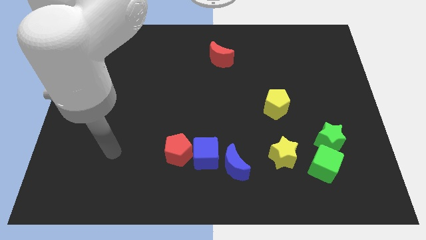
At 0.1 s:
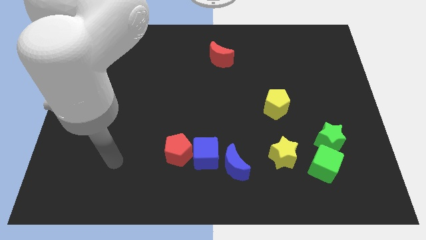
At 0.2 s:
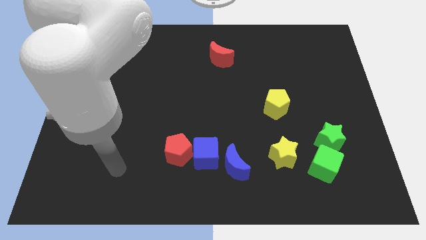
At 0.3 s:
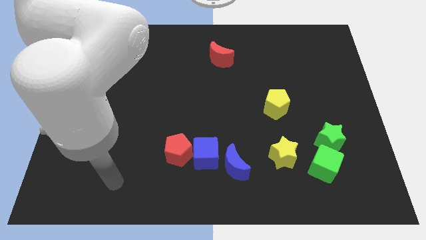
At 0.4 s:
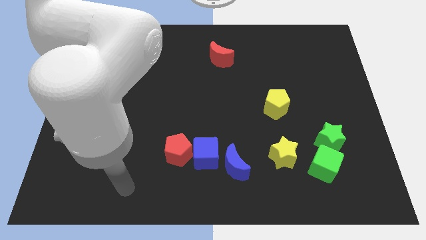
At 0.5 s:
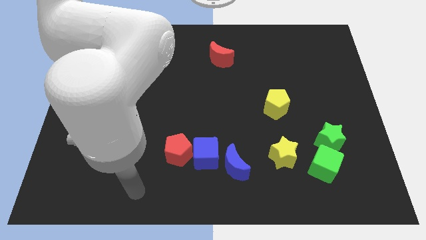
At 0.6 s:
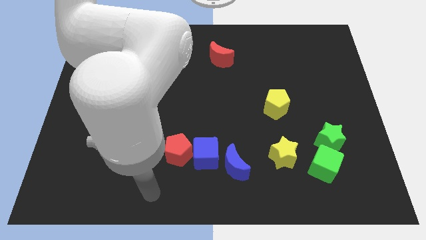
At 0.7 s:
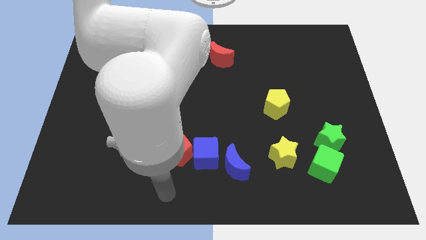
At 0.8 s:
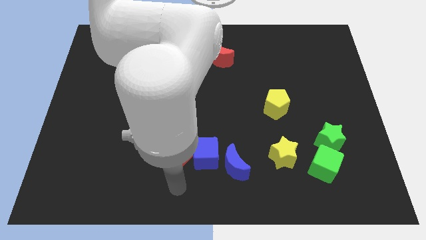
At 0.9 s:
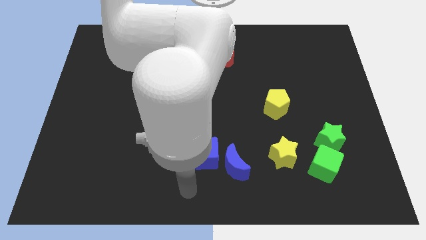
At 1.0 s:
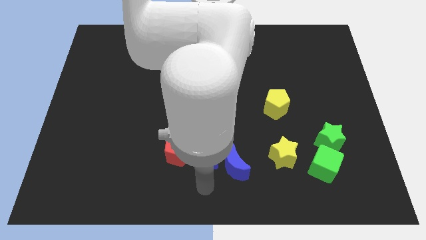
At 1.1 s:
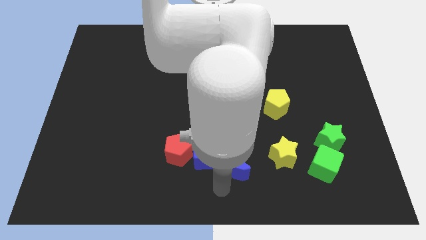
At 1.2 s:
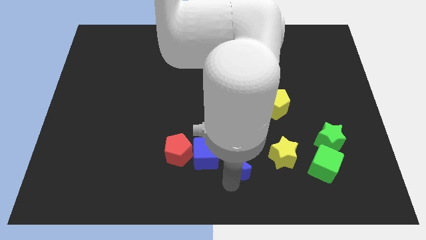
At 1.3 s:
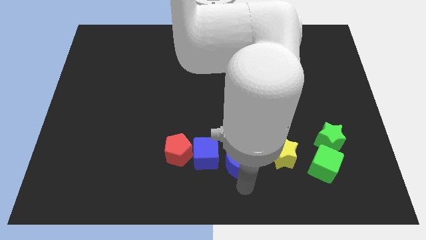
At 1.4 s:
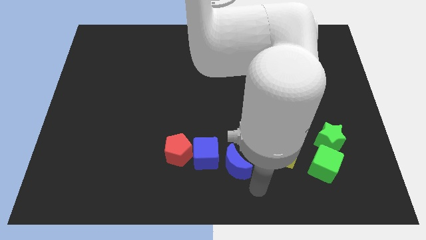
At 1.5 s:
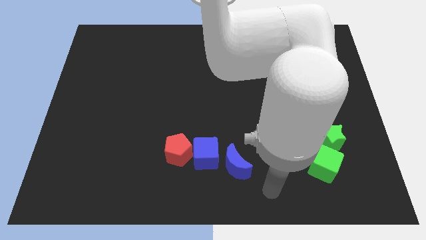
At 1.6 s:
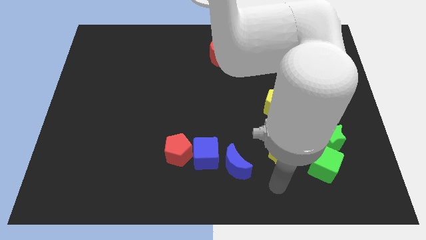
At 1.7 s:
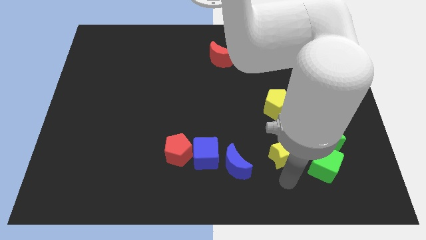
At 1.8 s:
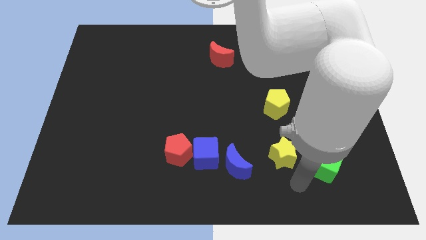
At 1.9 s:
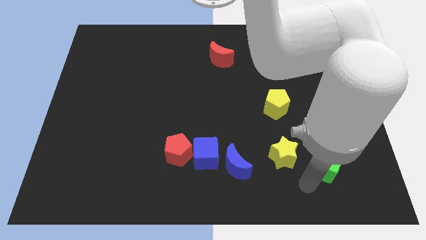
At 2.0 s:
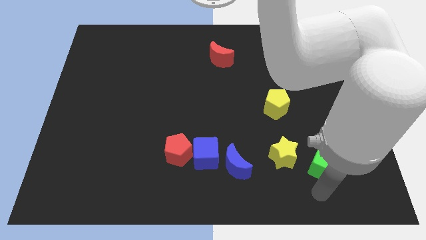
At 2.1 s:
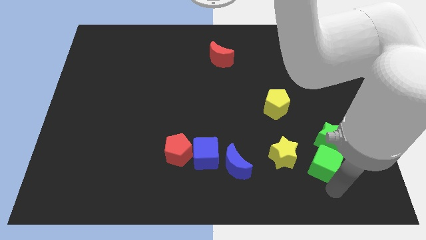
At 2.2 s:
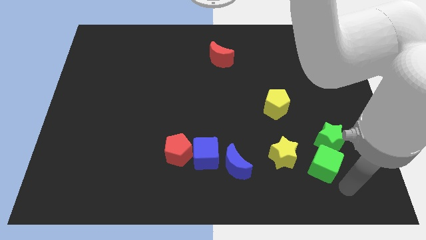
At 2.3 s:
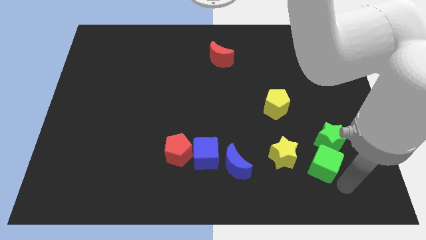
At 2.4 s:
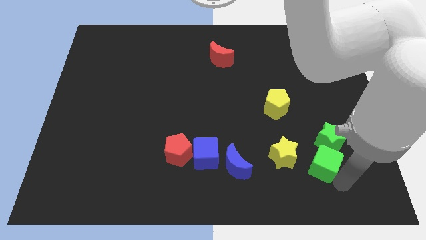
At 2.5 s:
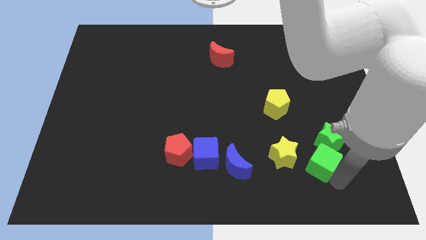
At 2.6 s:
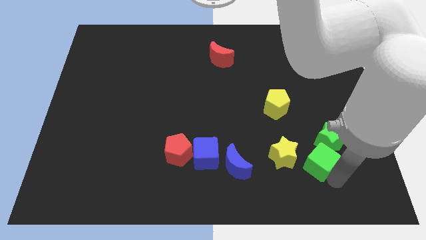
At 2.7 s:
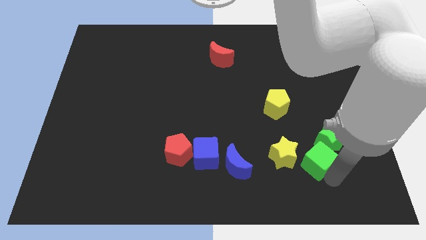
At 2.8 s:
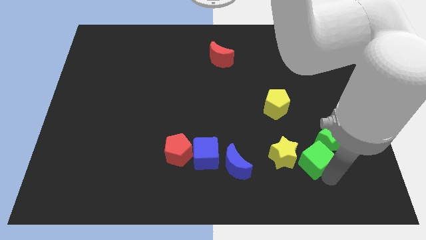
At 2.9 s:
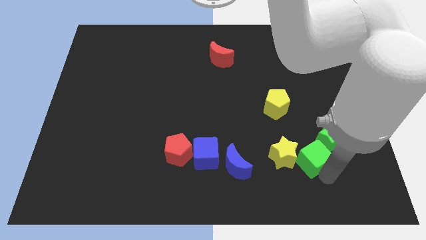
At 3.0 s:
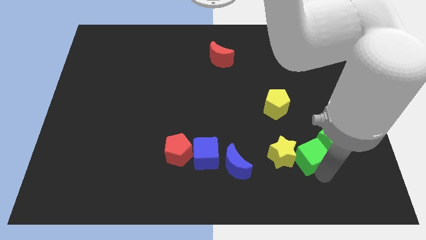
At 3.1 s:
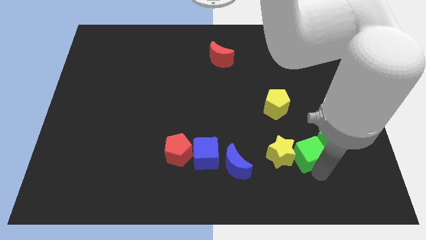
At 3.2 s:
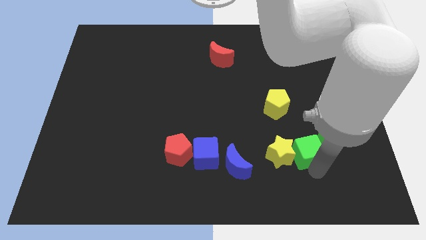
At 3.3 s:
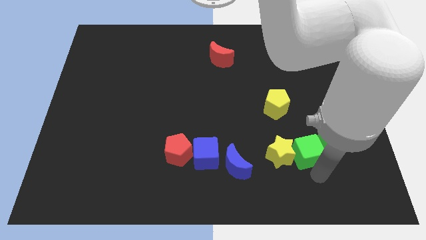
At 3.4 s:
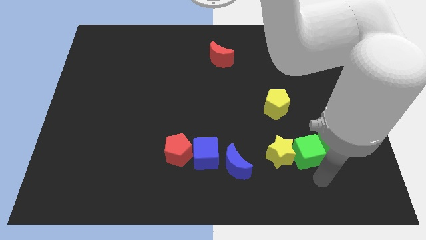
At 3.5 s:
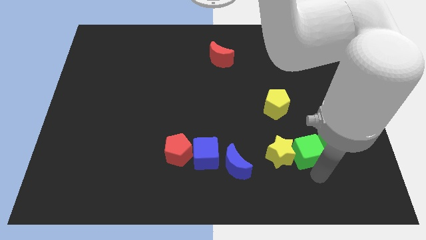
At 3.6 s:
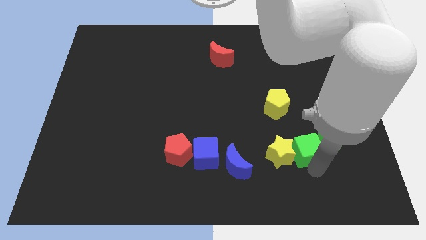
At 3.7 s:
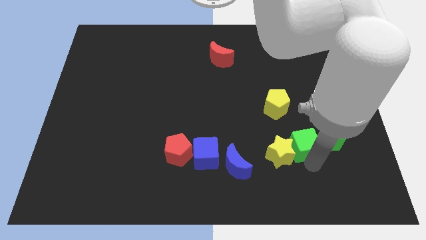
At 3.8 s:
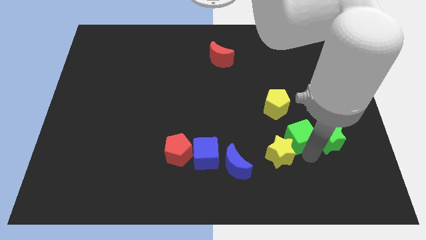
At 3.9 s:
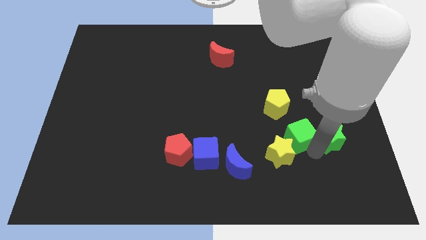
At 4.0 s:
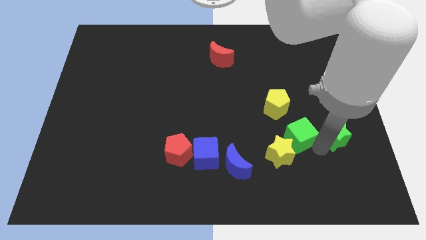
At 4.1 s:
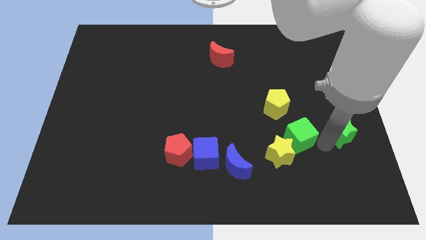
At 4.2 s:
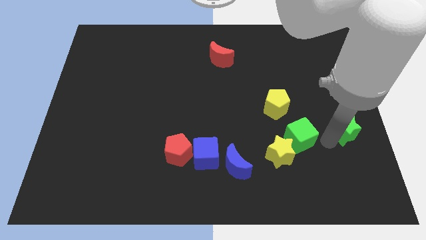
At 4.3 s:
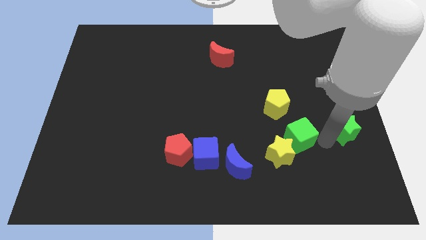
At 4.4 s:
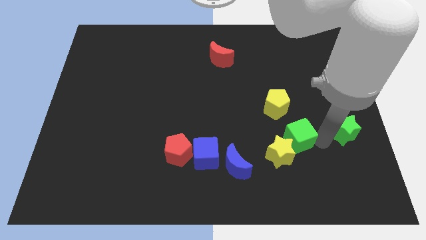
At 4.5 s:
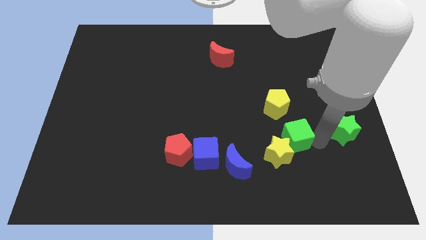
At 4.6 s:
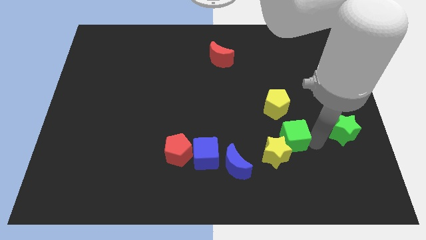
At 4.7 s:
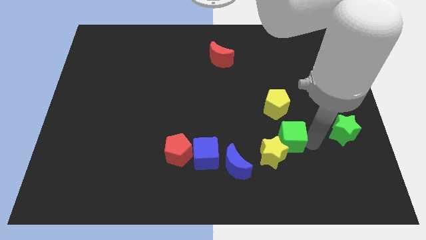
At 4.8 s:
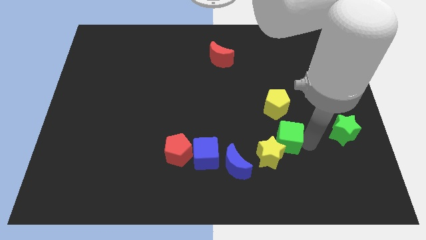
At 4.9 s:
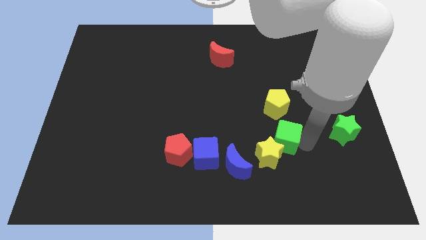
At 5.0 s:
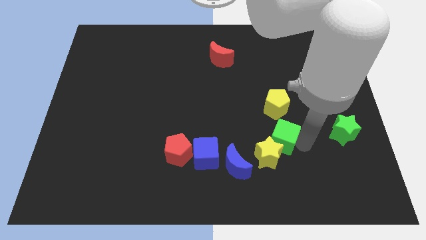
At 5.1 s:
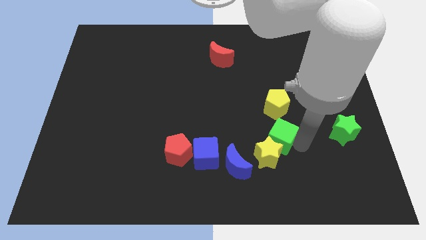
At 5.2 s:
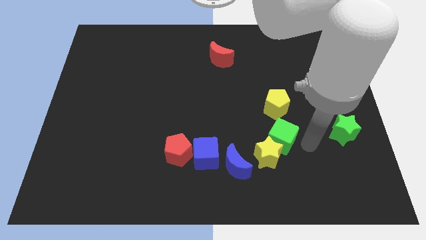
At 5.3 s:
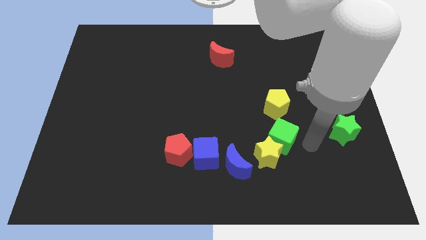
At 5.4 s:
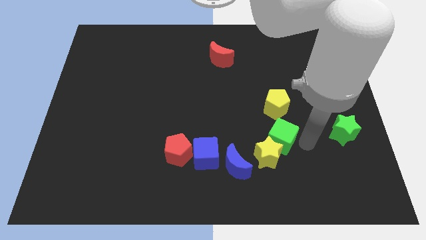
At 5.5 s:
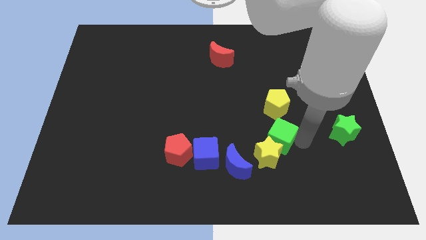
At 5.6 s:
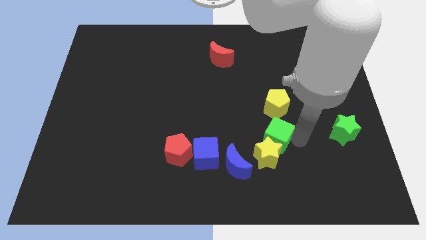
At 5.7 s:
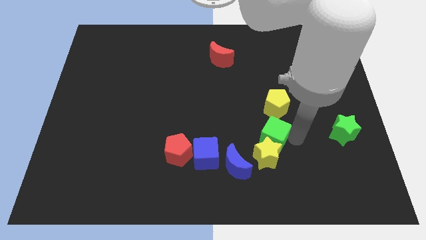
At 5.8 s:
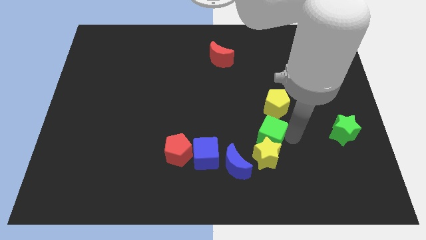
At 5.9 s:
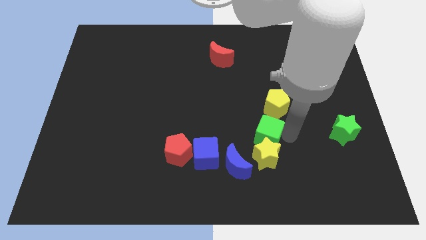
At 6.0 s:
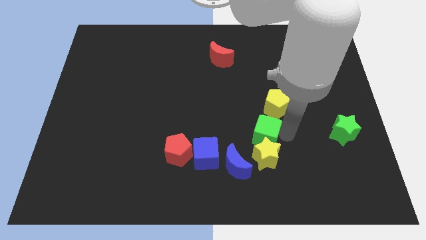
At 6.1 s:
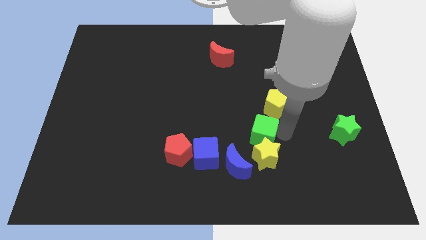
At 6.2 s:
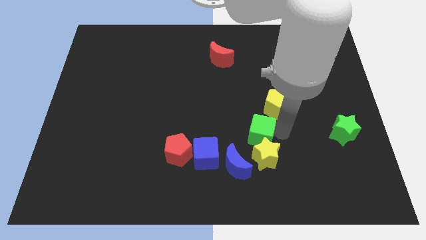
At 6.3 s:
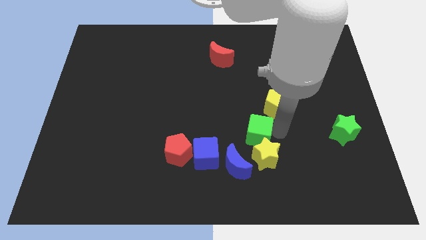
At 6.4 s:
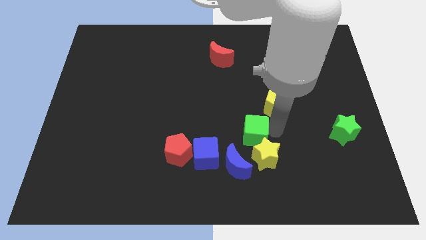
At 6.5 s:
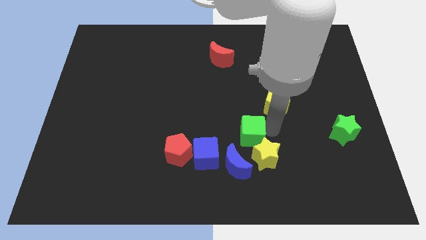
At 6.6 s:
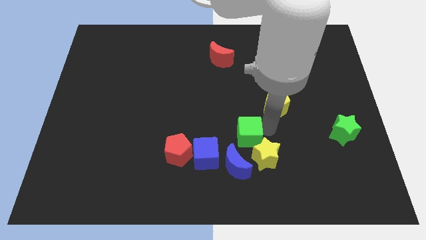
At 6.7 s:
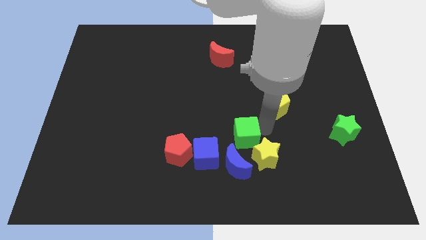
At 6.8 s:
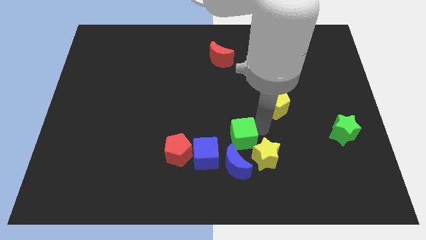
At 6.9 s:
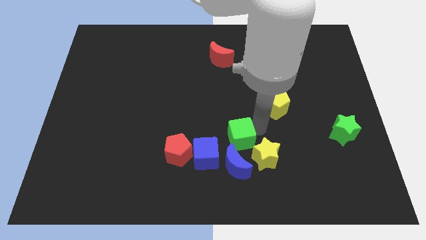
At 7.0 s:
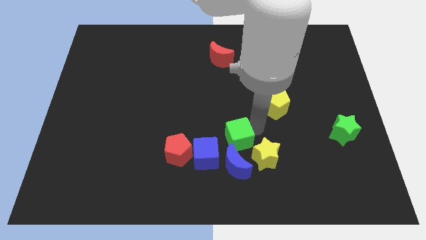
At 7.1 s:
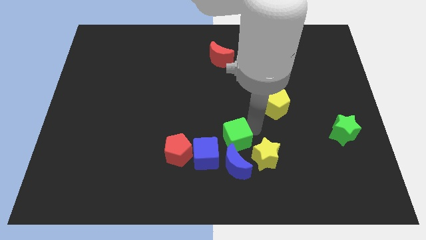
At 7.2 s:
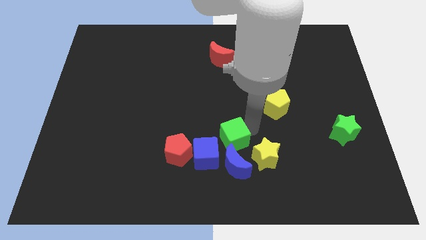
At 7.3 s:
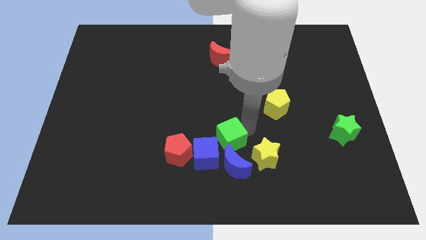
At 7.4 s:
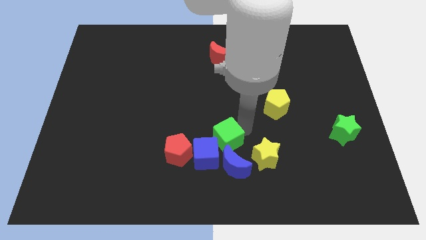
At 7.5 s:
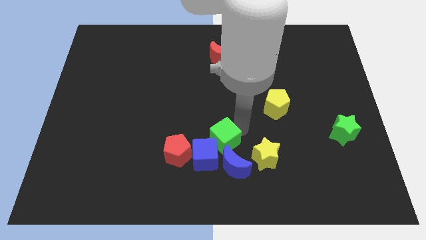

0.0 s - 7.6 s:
slide the green cube to the blue cube

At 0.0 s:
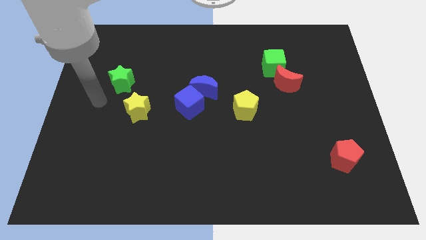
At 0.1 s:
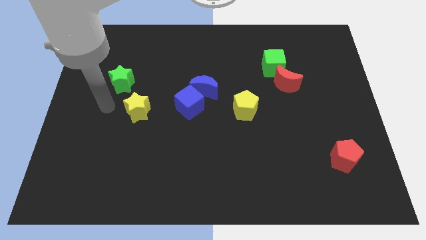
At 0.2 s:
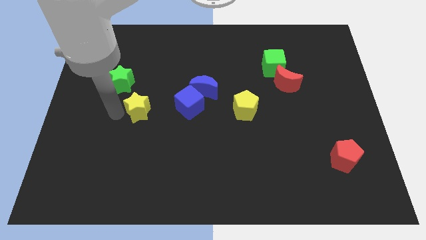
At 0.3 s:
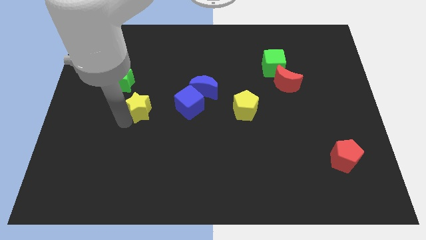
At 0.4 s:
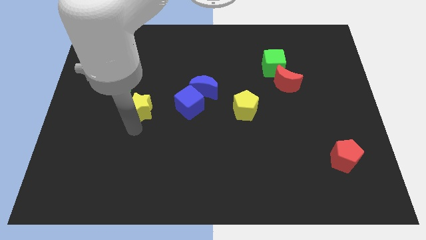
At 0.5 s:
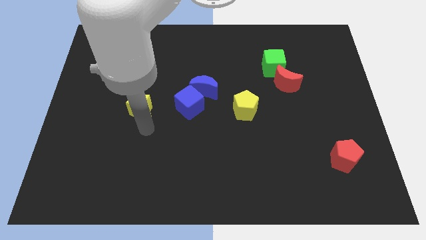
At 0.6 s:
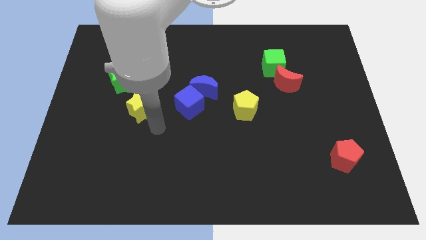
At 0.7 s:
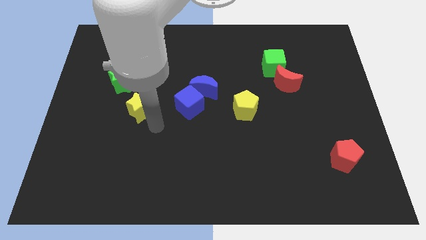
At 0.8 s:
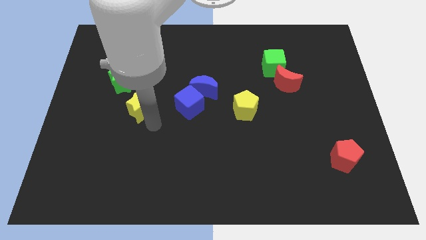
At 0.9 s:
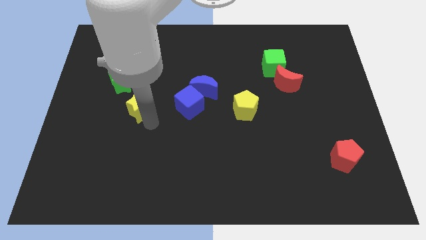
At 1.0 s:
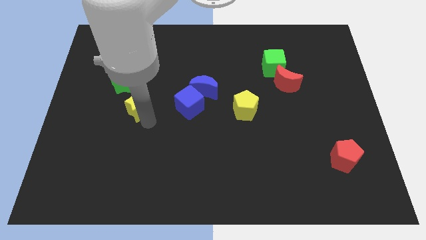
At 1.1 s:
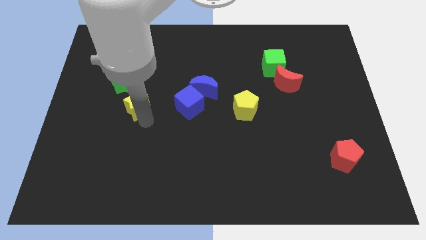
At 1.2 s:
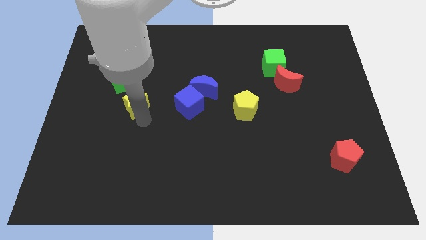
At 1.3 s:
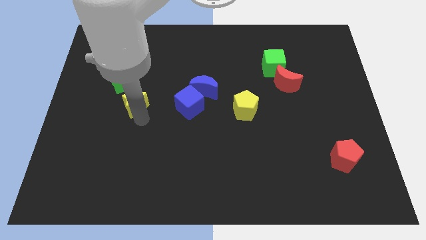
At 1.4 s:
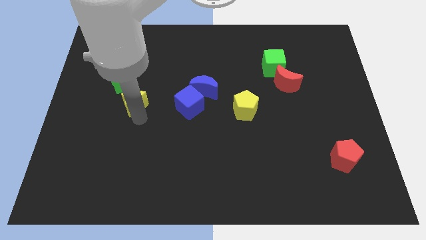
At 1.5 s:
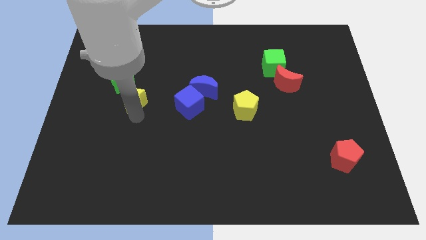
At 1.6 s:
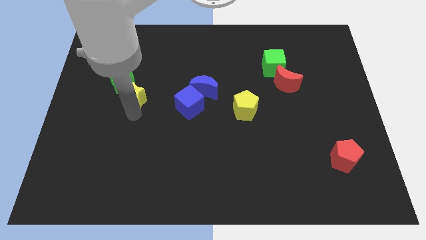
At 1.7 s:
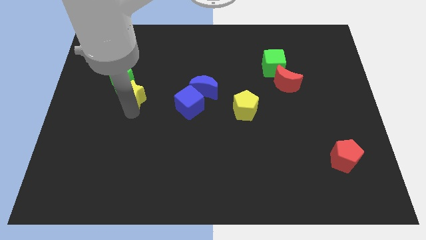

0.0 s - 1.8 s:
move the yellow star towards the green star
